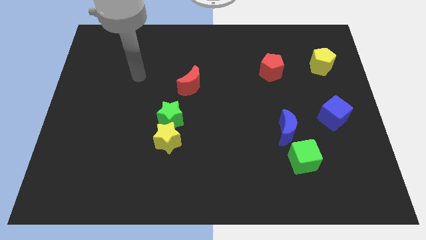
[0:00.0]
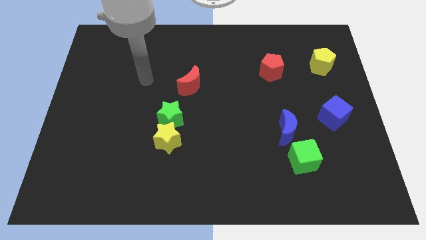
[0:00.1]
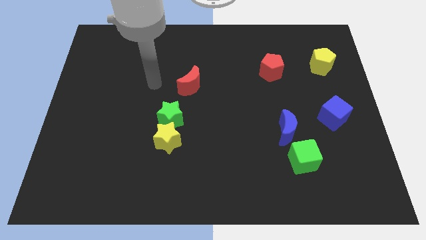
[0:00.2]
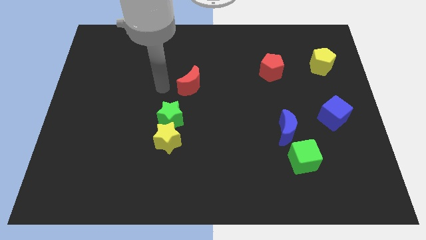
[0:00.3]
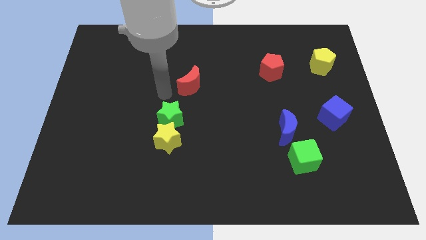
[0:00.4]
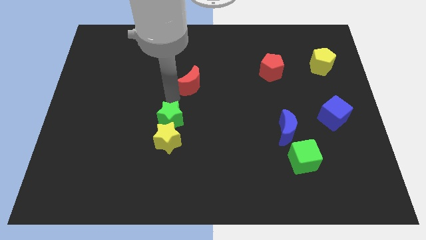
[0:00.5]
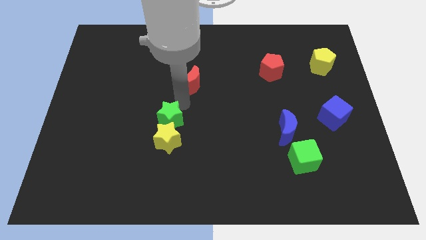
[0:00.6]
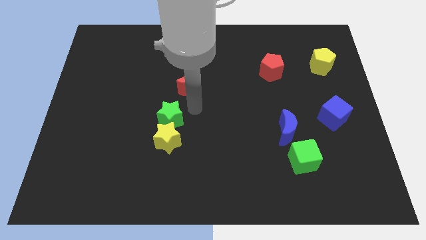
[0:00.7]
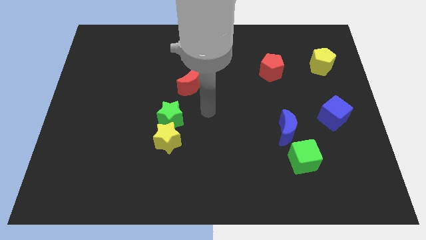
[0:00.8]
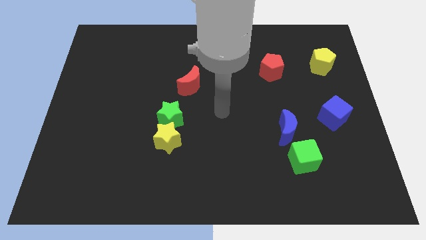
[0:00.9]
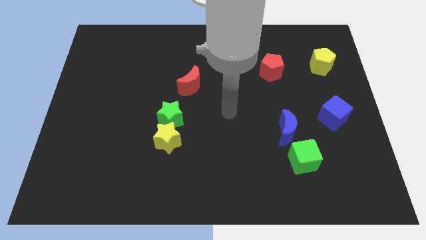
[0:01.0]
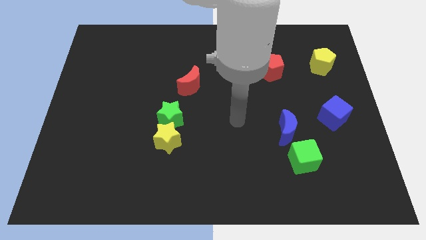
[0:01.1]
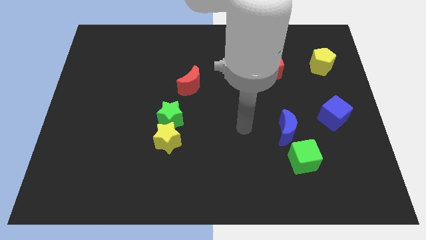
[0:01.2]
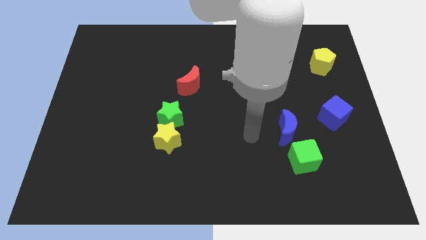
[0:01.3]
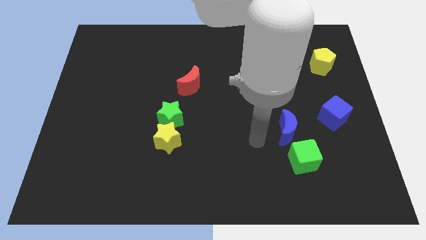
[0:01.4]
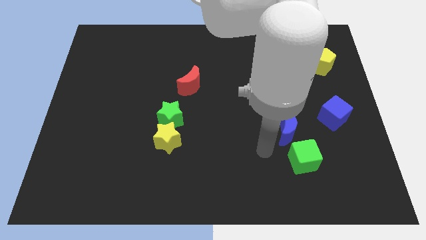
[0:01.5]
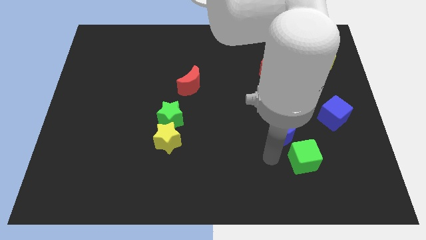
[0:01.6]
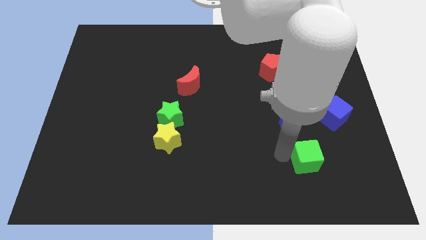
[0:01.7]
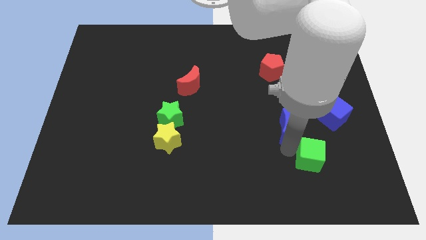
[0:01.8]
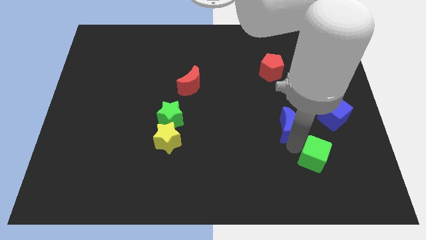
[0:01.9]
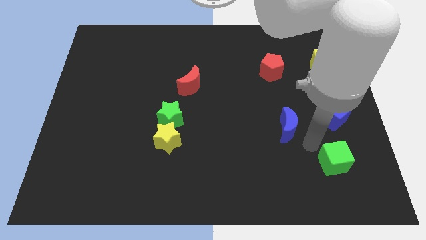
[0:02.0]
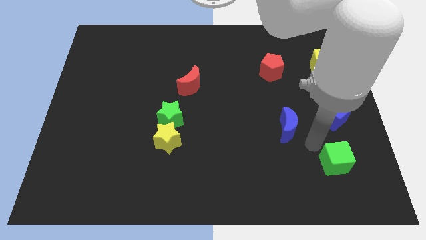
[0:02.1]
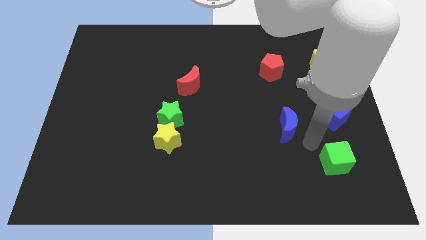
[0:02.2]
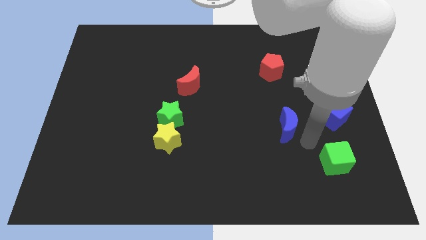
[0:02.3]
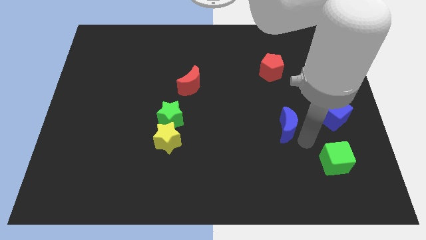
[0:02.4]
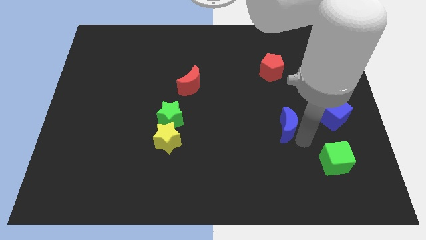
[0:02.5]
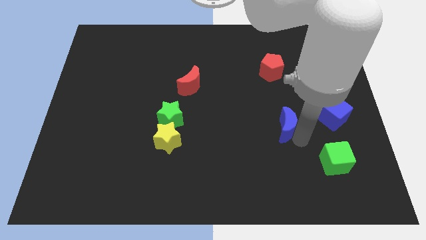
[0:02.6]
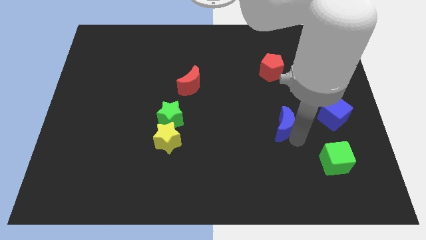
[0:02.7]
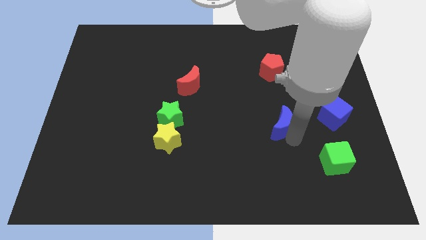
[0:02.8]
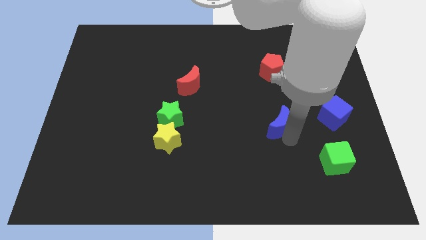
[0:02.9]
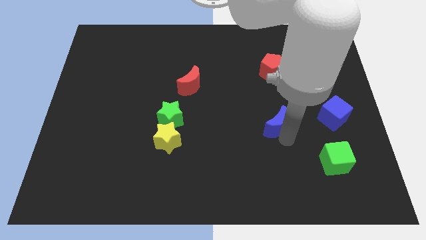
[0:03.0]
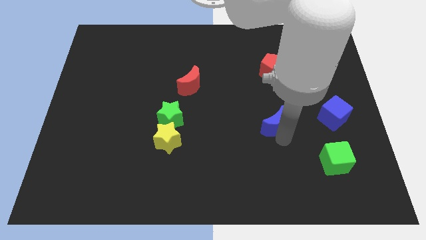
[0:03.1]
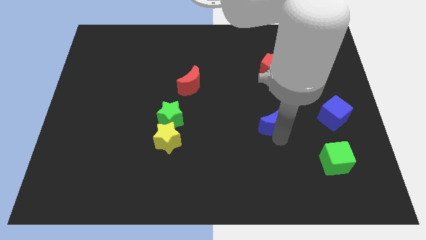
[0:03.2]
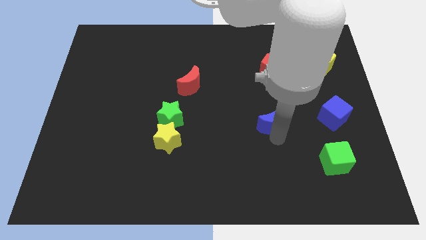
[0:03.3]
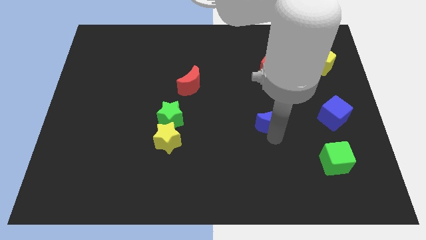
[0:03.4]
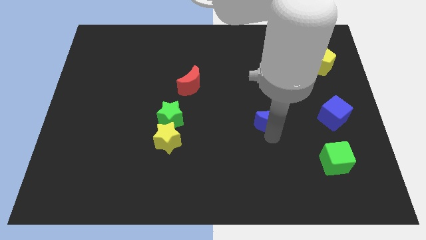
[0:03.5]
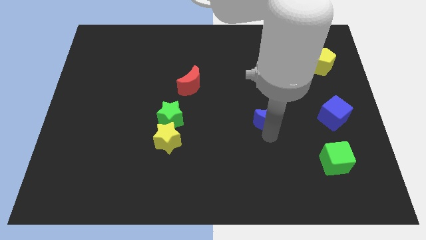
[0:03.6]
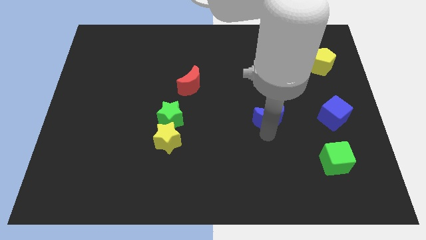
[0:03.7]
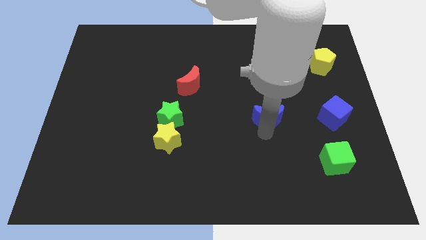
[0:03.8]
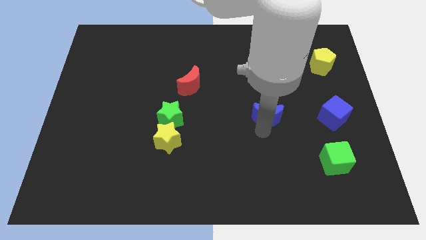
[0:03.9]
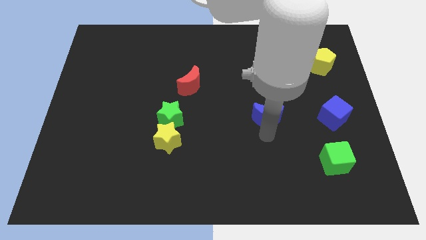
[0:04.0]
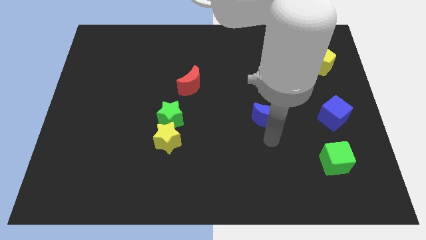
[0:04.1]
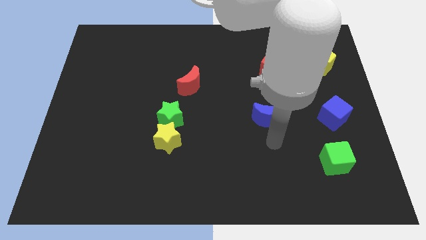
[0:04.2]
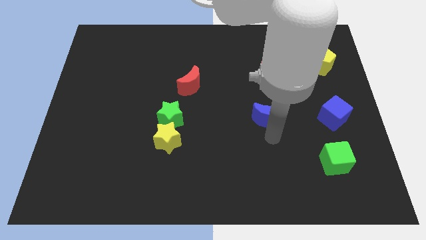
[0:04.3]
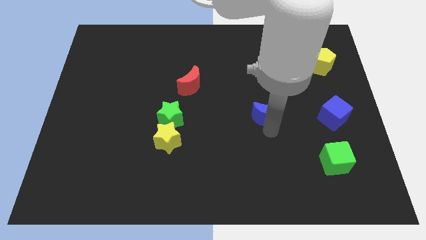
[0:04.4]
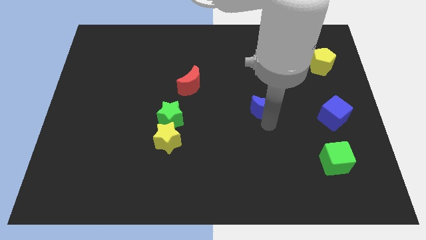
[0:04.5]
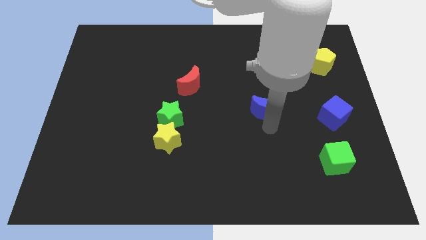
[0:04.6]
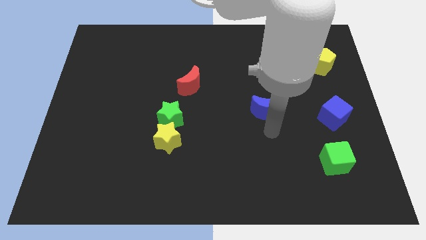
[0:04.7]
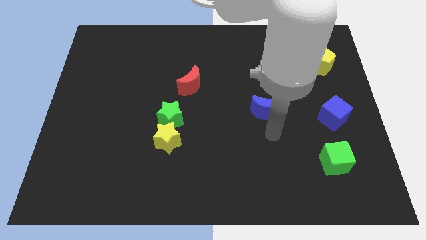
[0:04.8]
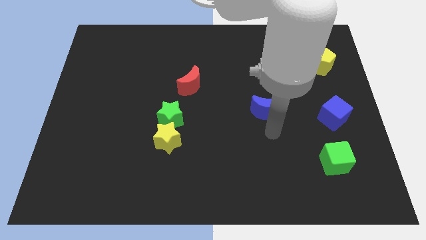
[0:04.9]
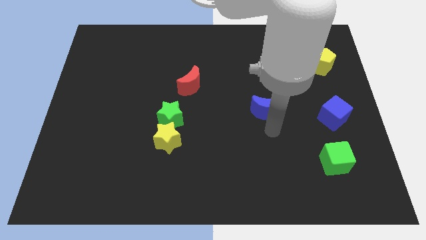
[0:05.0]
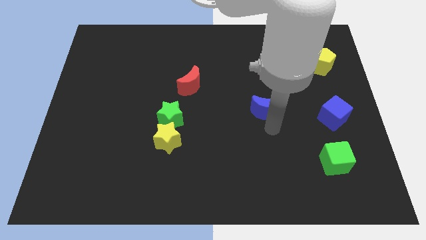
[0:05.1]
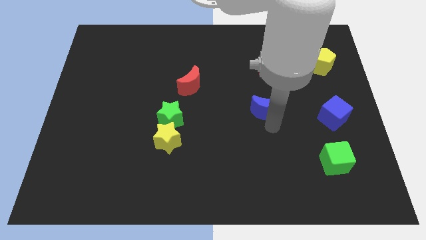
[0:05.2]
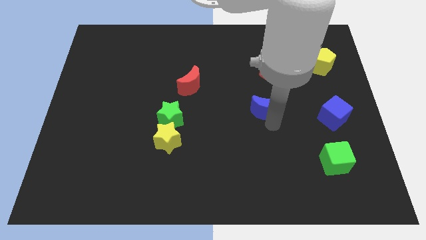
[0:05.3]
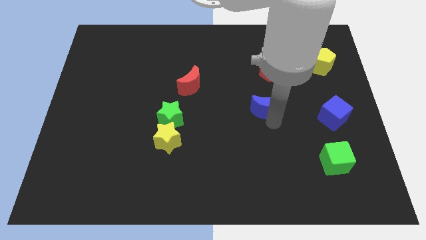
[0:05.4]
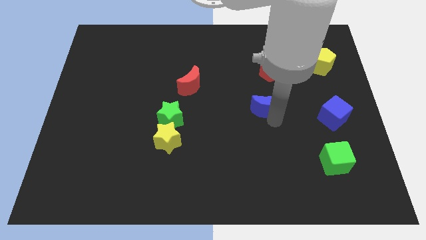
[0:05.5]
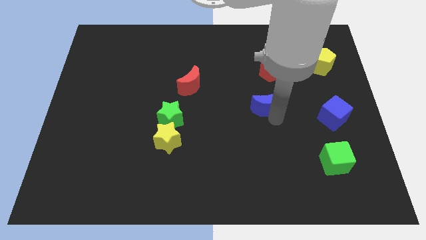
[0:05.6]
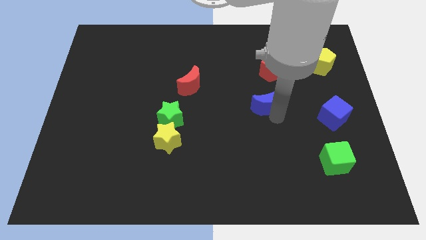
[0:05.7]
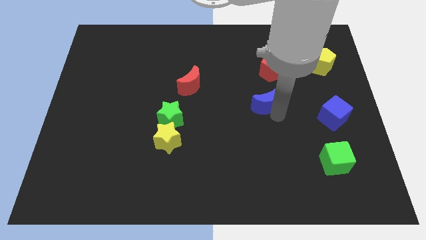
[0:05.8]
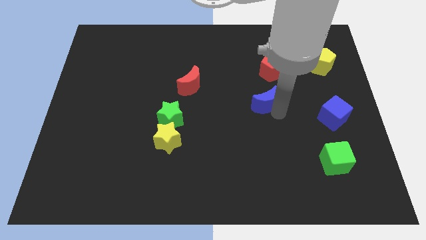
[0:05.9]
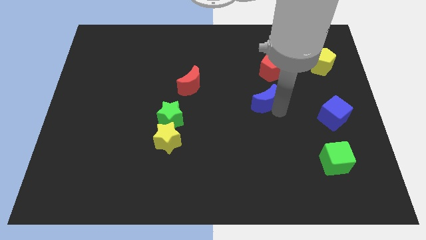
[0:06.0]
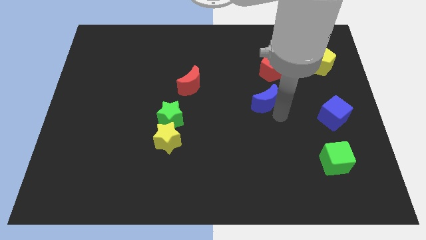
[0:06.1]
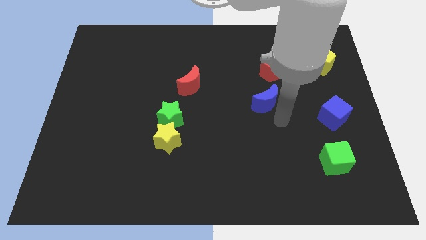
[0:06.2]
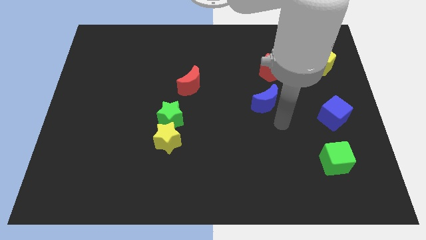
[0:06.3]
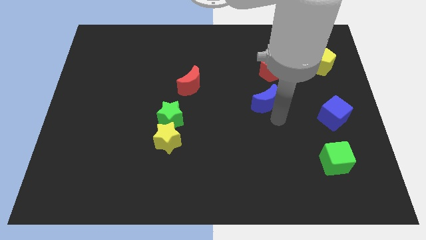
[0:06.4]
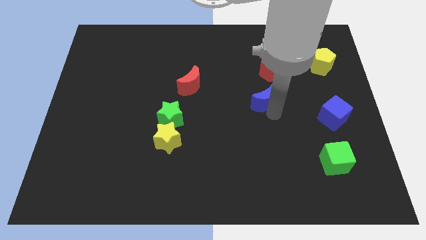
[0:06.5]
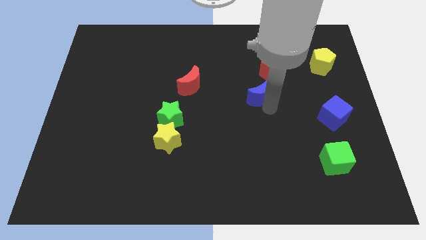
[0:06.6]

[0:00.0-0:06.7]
put the blue moon to the bottom left of the red pentagon

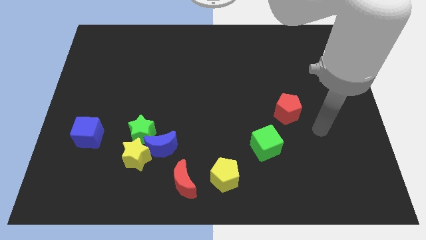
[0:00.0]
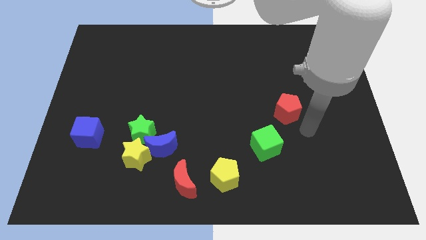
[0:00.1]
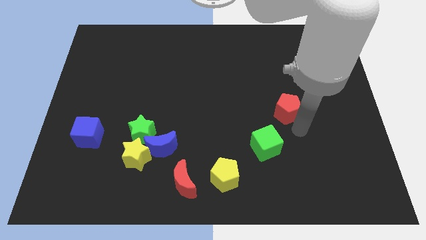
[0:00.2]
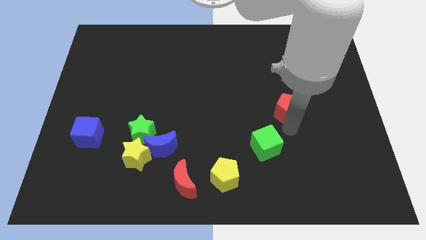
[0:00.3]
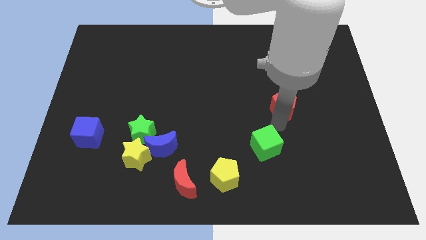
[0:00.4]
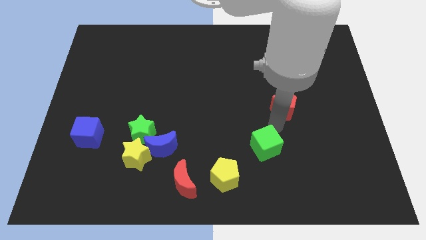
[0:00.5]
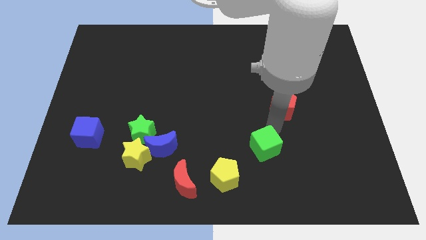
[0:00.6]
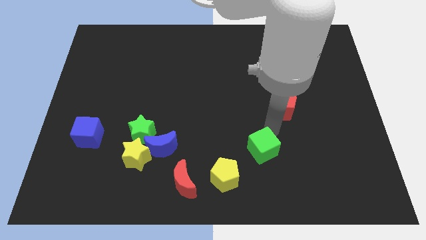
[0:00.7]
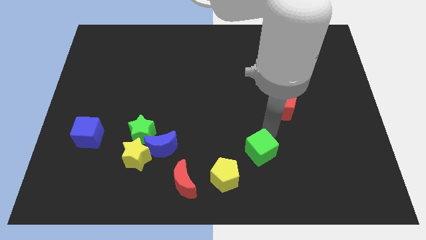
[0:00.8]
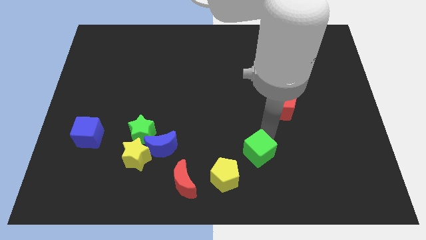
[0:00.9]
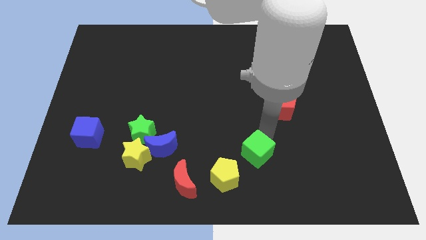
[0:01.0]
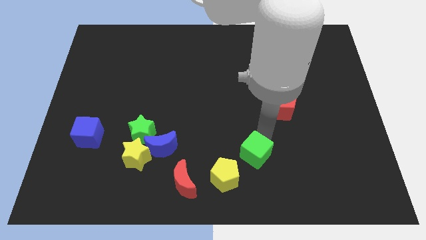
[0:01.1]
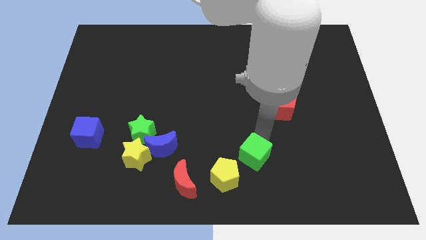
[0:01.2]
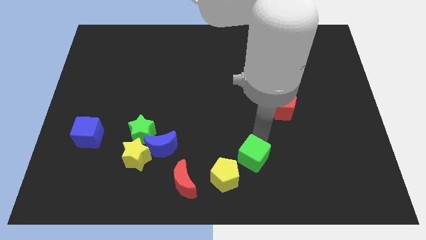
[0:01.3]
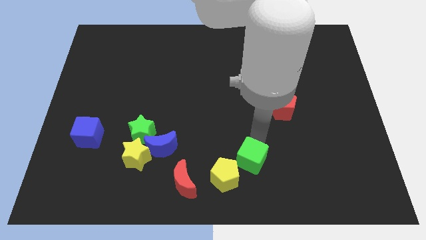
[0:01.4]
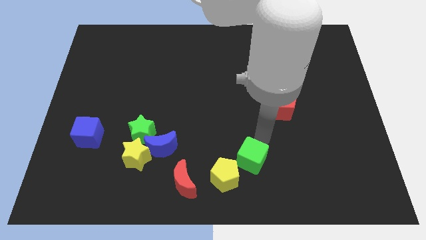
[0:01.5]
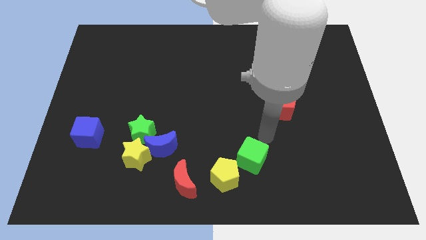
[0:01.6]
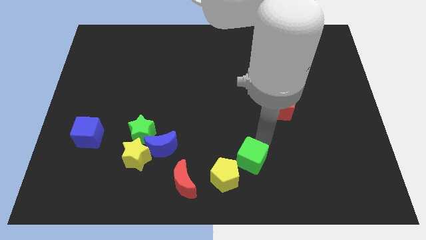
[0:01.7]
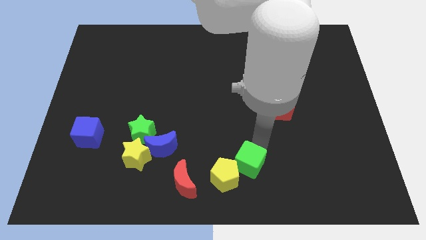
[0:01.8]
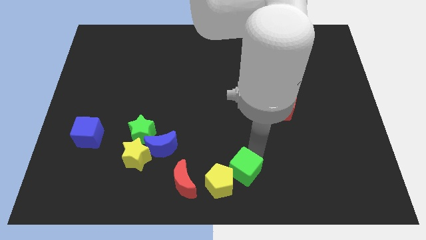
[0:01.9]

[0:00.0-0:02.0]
move the green cube to the right of the red moon
